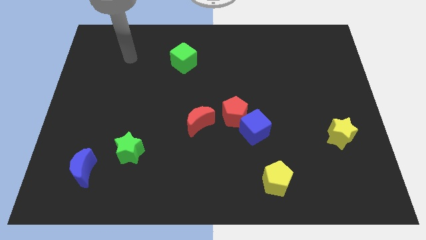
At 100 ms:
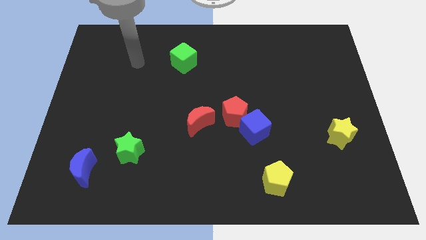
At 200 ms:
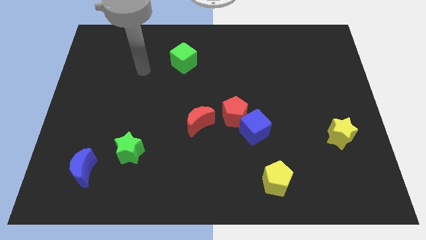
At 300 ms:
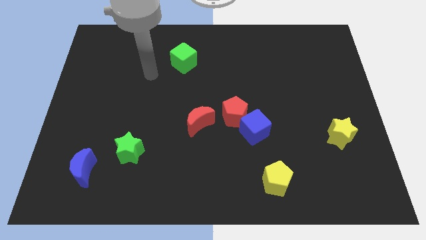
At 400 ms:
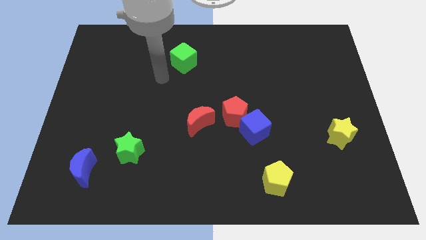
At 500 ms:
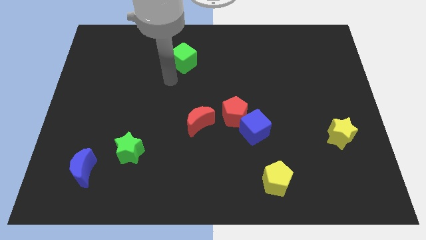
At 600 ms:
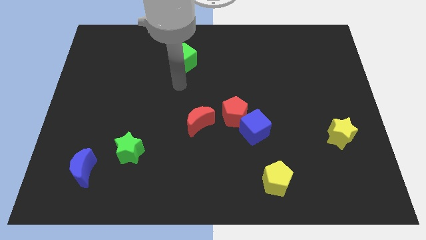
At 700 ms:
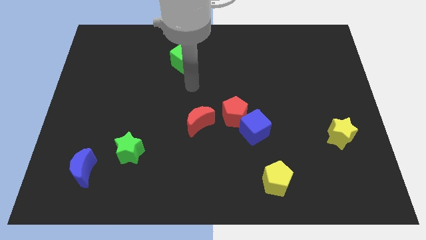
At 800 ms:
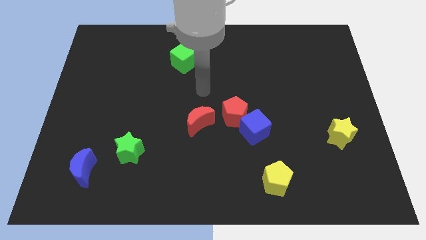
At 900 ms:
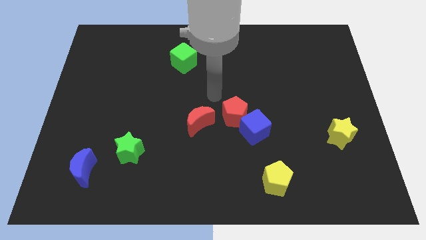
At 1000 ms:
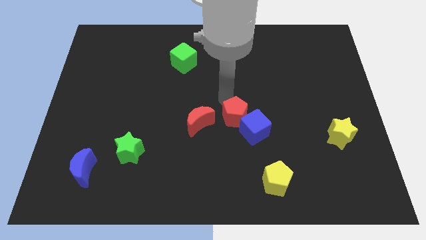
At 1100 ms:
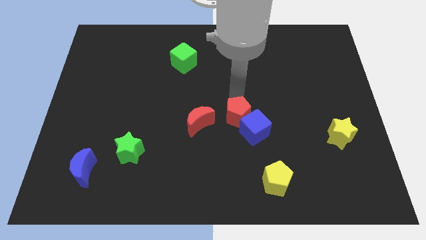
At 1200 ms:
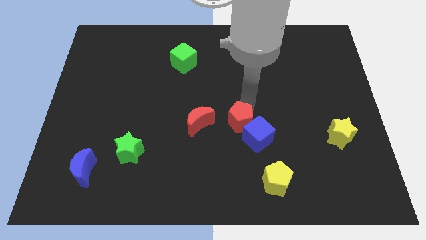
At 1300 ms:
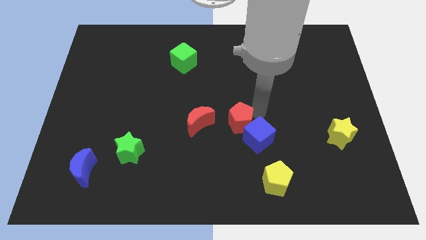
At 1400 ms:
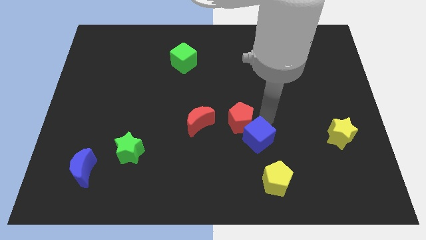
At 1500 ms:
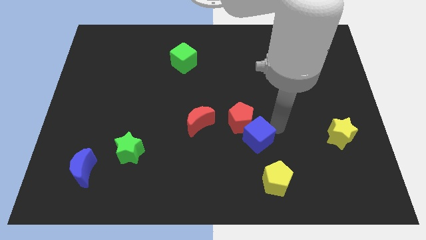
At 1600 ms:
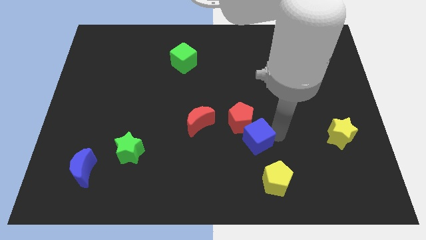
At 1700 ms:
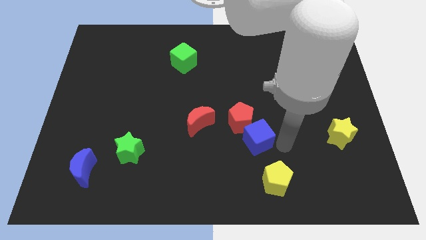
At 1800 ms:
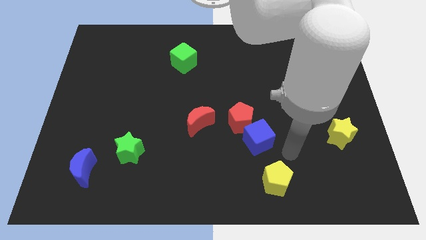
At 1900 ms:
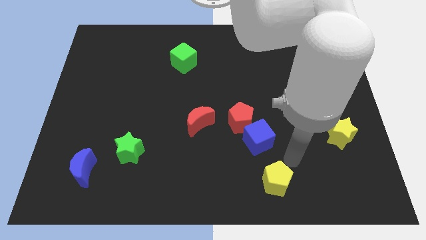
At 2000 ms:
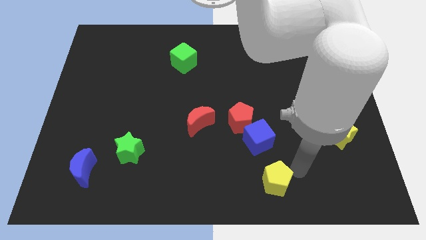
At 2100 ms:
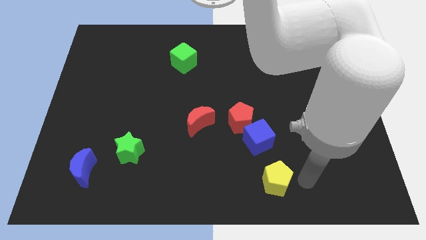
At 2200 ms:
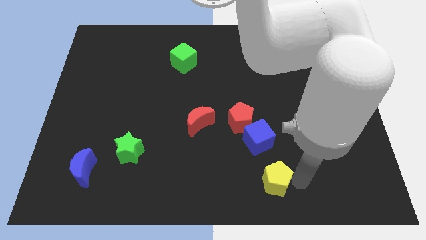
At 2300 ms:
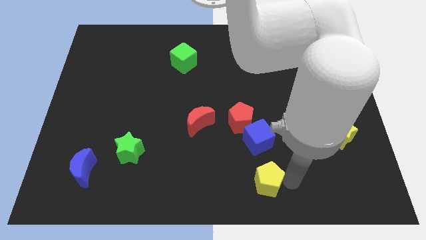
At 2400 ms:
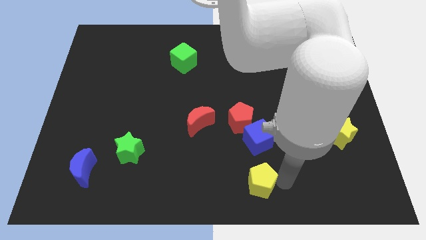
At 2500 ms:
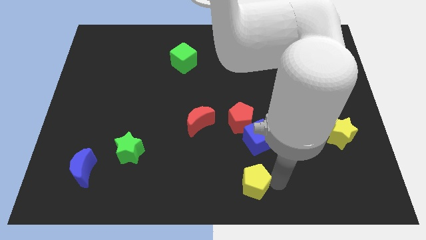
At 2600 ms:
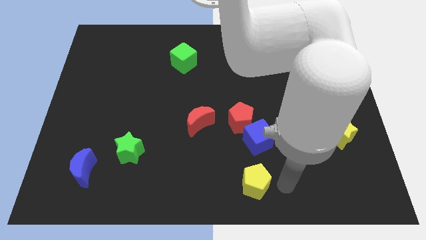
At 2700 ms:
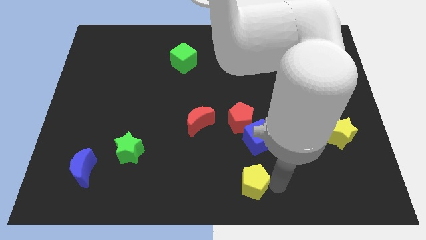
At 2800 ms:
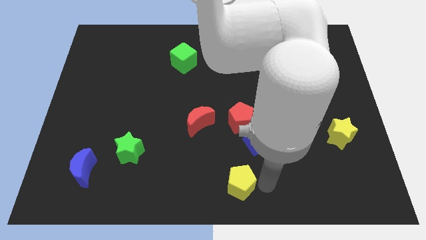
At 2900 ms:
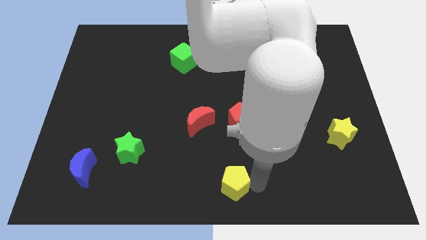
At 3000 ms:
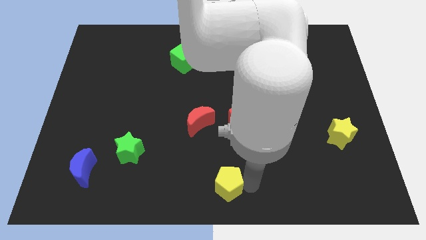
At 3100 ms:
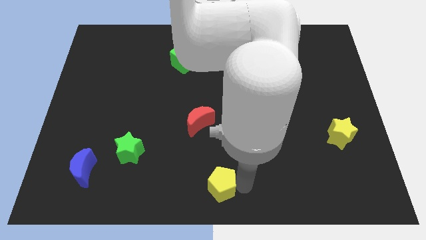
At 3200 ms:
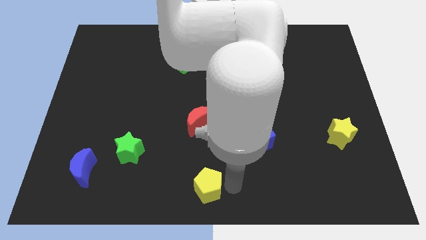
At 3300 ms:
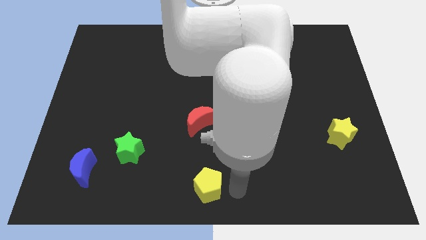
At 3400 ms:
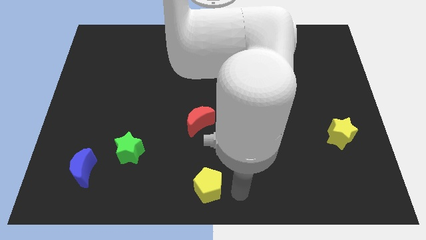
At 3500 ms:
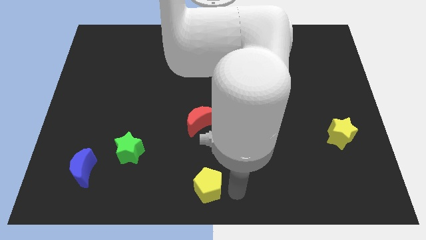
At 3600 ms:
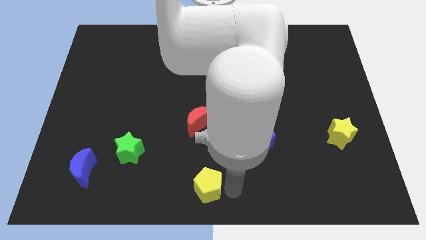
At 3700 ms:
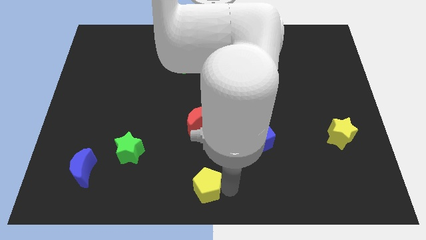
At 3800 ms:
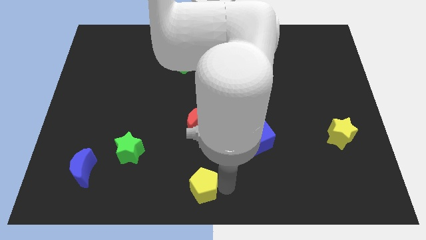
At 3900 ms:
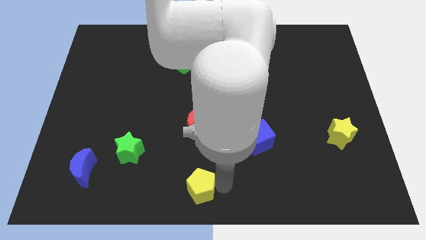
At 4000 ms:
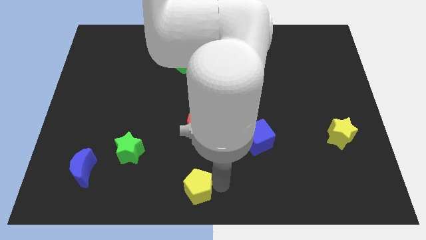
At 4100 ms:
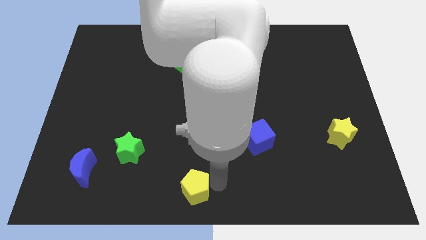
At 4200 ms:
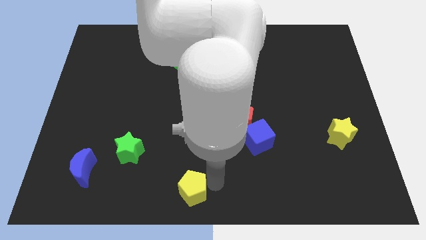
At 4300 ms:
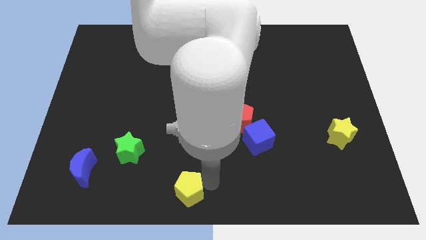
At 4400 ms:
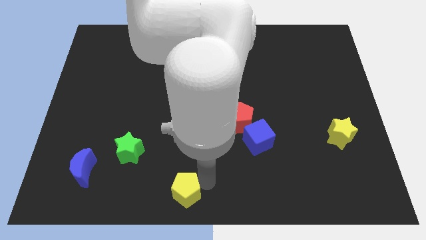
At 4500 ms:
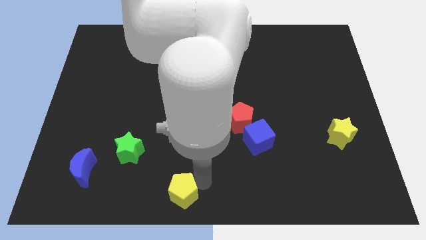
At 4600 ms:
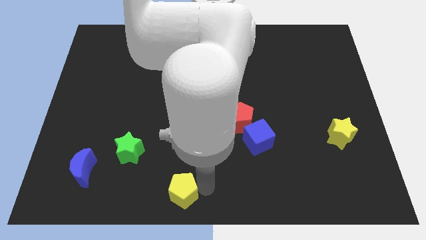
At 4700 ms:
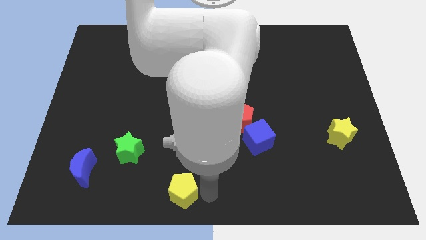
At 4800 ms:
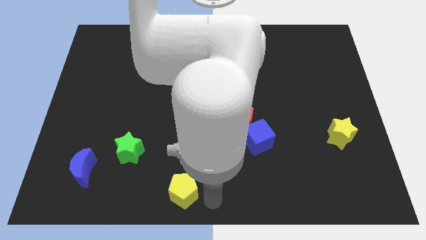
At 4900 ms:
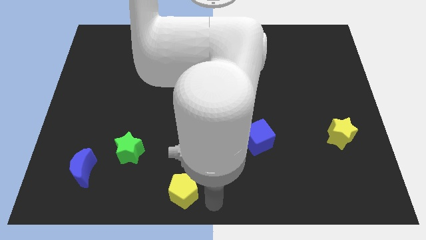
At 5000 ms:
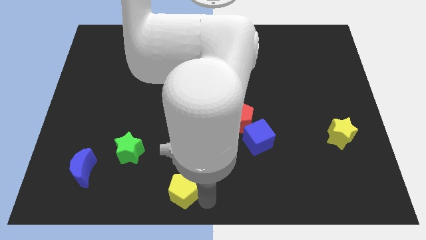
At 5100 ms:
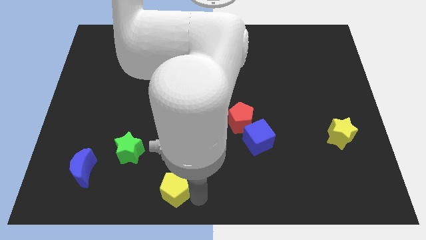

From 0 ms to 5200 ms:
push the yellow pentagon left

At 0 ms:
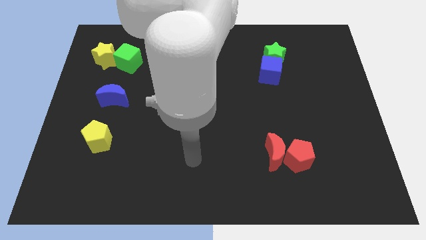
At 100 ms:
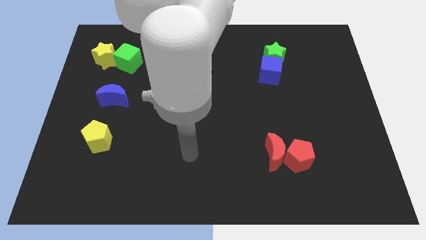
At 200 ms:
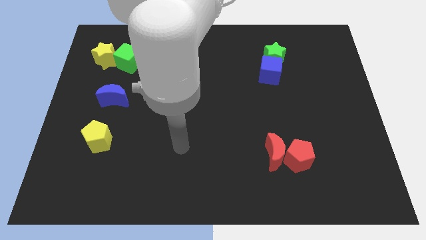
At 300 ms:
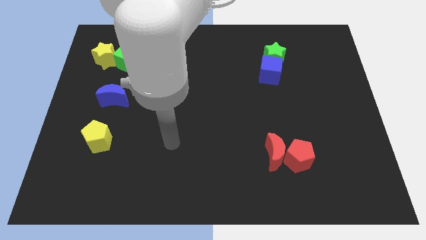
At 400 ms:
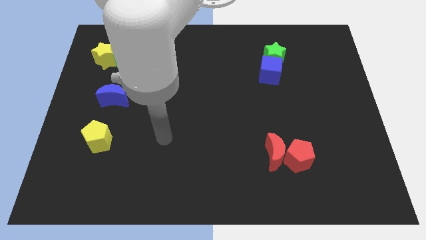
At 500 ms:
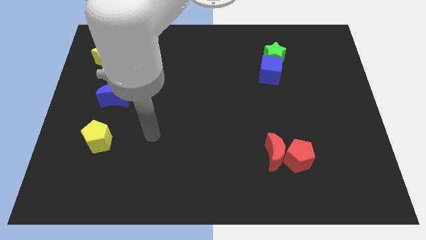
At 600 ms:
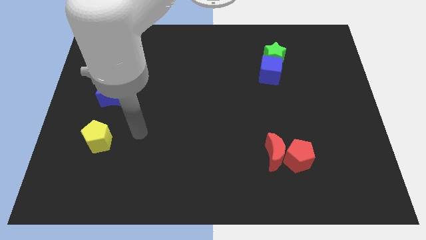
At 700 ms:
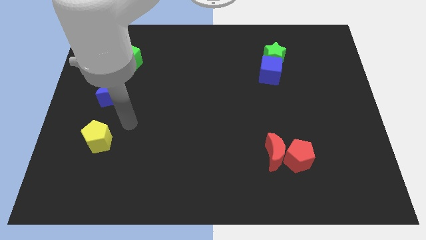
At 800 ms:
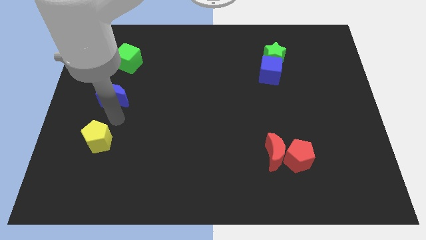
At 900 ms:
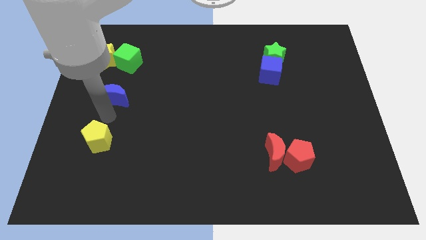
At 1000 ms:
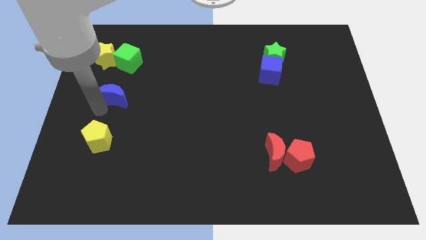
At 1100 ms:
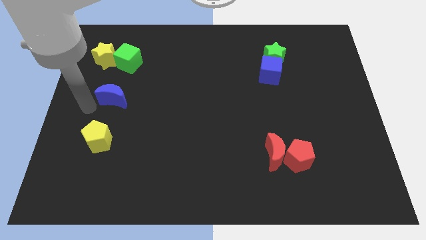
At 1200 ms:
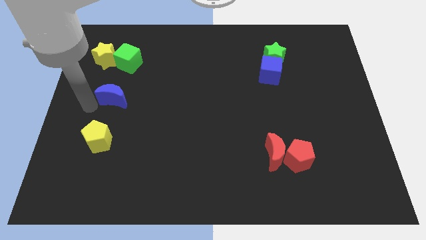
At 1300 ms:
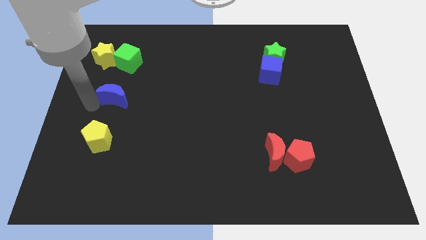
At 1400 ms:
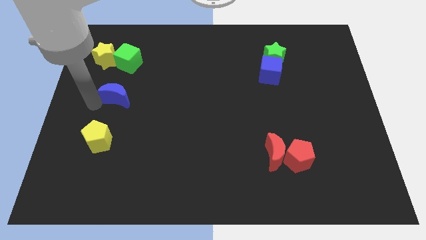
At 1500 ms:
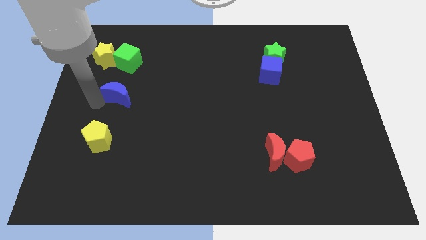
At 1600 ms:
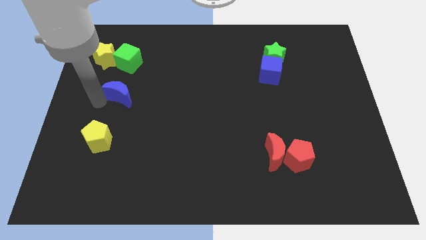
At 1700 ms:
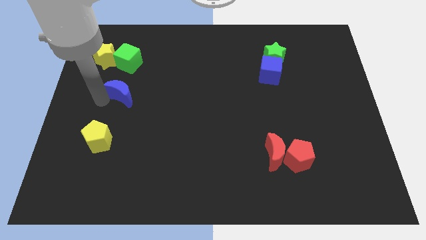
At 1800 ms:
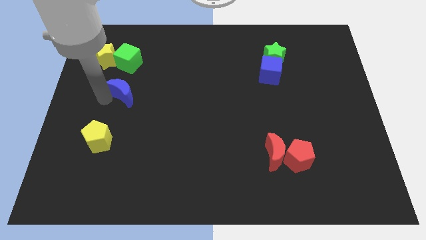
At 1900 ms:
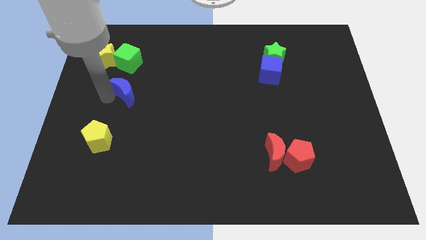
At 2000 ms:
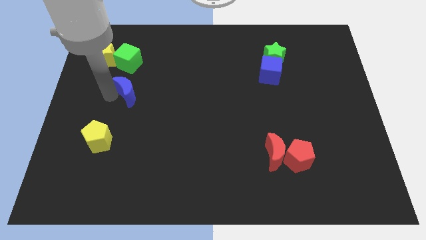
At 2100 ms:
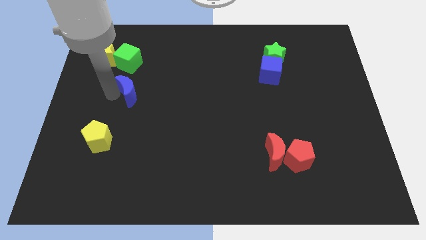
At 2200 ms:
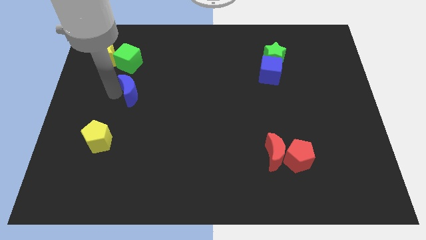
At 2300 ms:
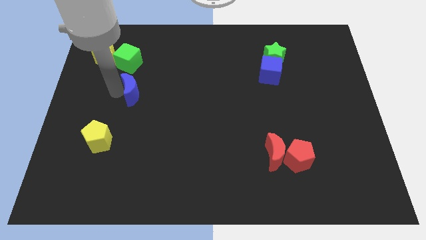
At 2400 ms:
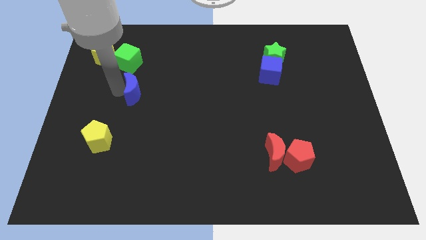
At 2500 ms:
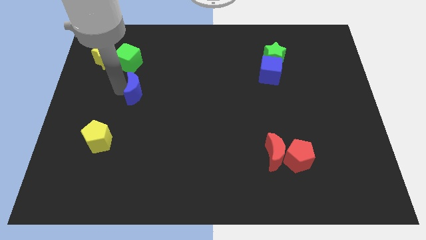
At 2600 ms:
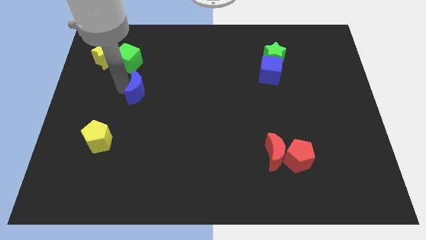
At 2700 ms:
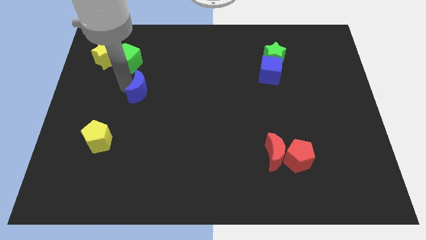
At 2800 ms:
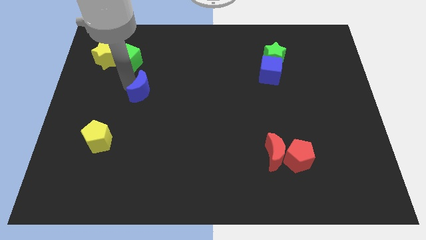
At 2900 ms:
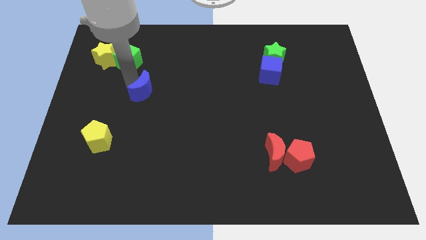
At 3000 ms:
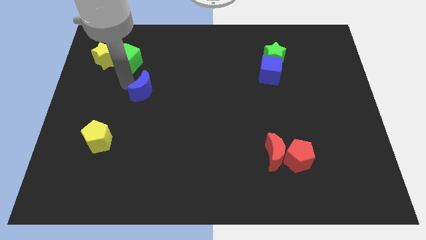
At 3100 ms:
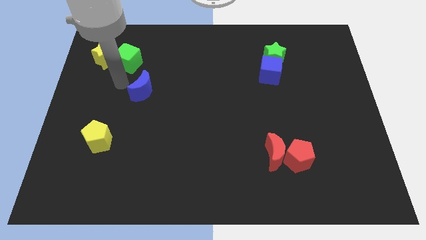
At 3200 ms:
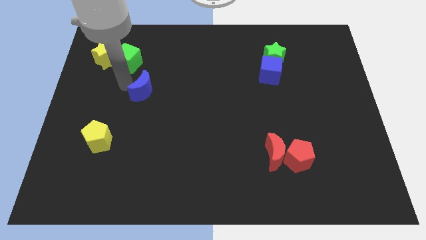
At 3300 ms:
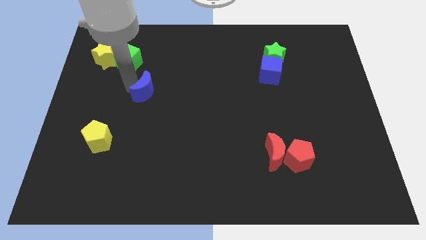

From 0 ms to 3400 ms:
push the blue moon a little to the right
